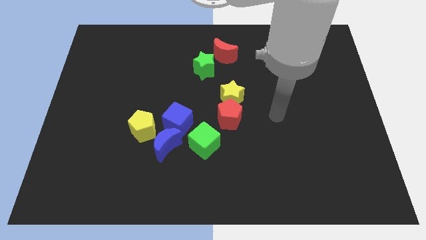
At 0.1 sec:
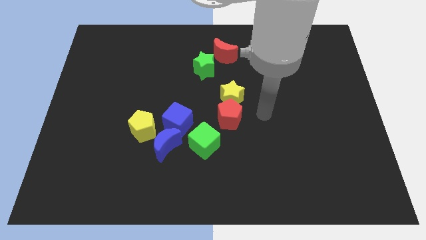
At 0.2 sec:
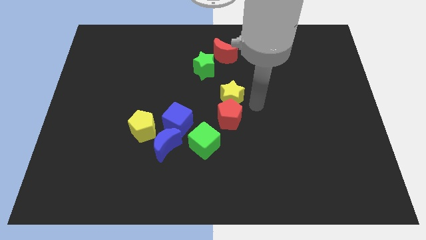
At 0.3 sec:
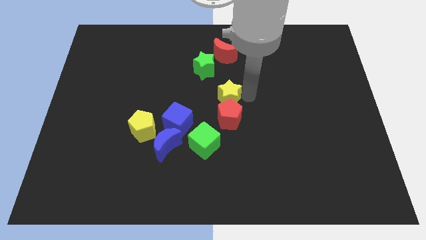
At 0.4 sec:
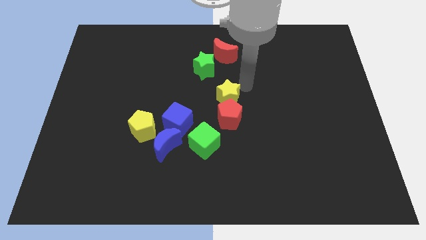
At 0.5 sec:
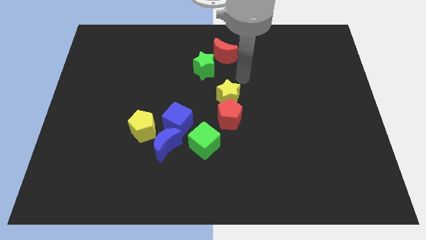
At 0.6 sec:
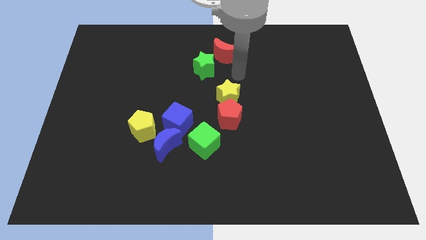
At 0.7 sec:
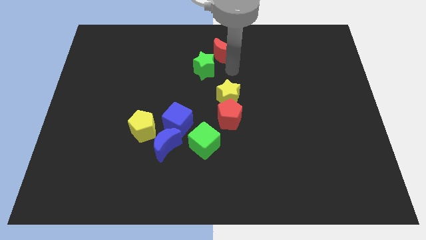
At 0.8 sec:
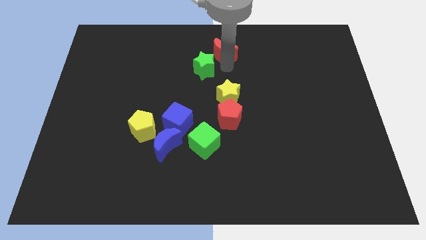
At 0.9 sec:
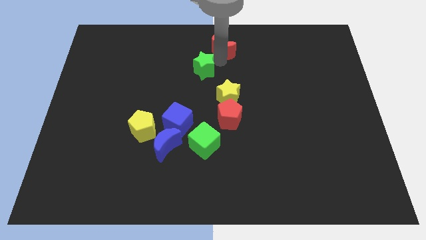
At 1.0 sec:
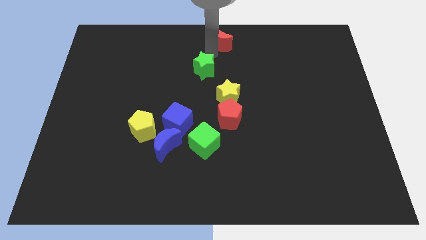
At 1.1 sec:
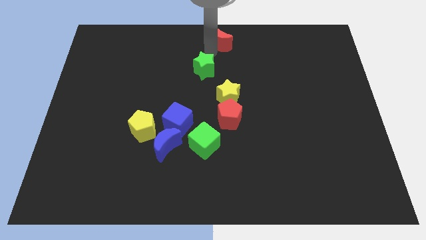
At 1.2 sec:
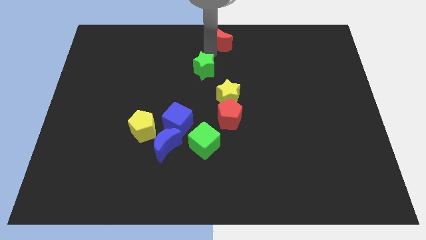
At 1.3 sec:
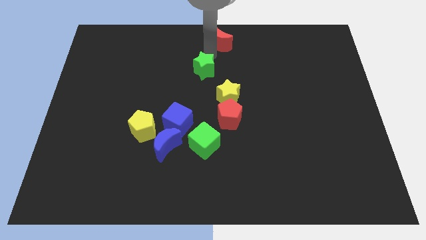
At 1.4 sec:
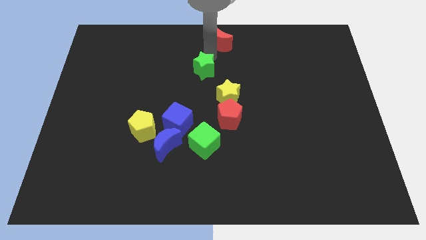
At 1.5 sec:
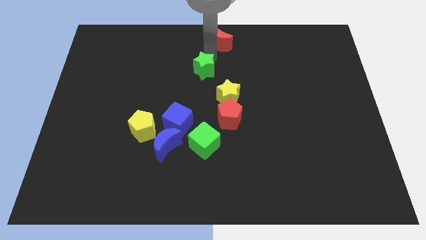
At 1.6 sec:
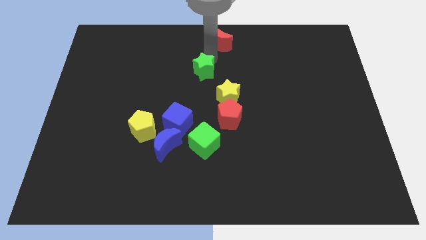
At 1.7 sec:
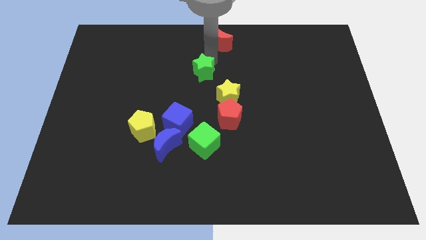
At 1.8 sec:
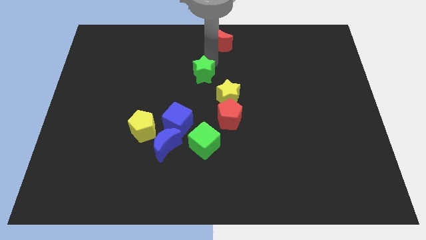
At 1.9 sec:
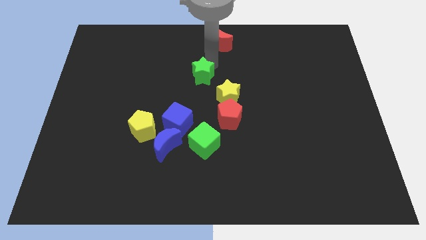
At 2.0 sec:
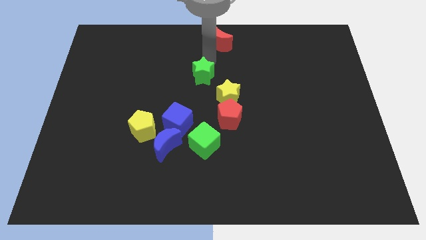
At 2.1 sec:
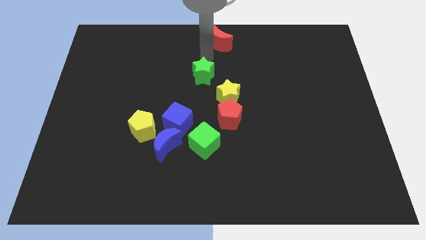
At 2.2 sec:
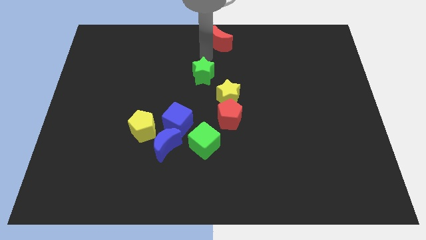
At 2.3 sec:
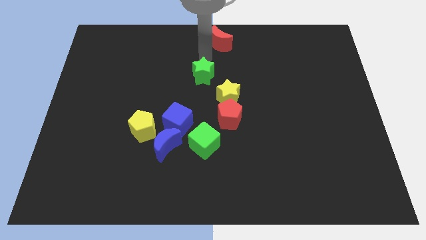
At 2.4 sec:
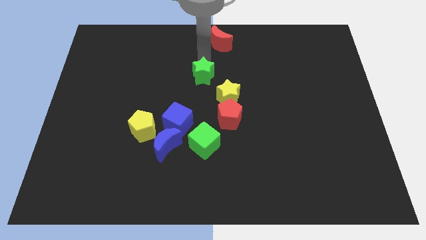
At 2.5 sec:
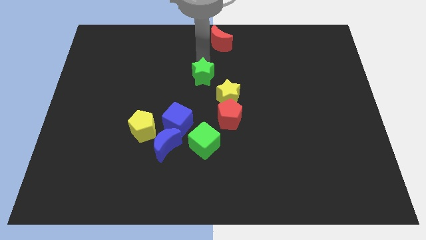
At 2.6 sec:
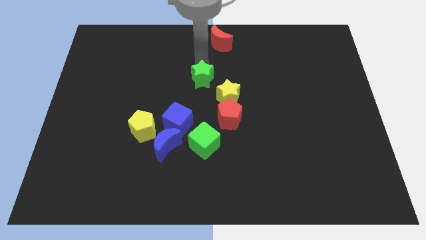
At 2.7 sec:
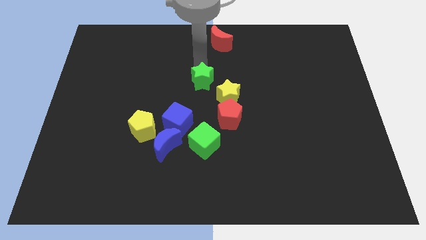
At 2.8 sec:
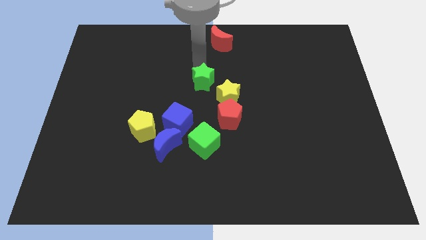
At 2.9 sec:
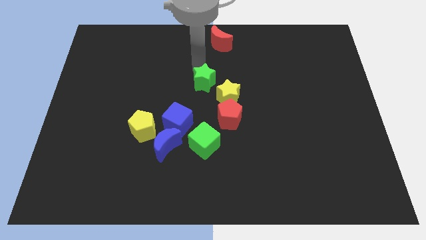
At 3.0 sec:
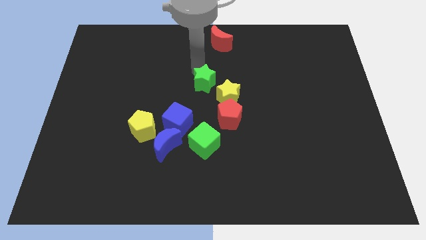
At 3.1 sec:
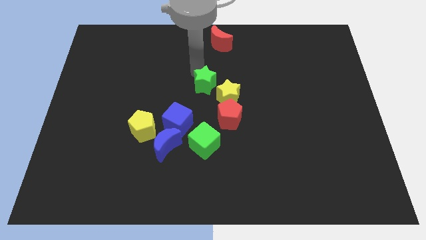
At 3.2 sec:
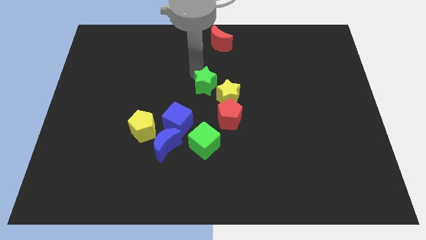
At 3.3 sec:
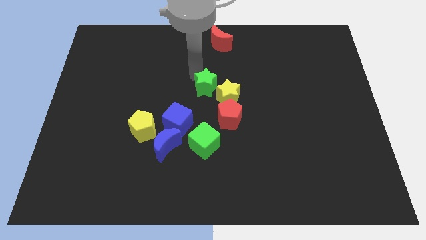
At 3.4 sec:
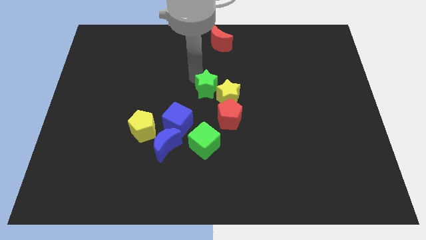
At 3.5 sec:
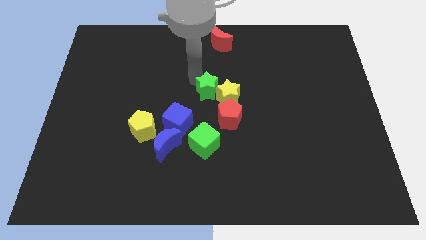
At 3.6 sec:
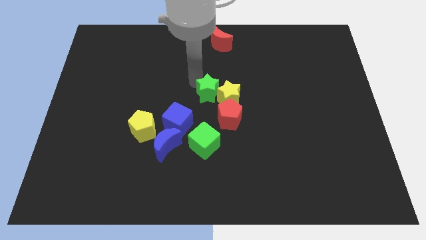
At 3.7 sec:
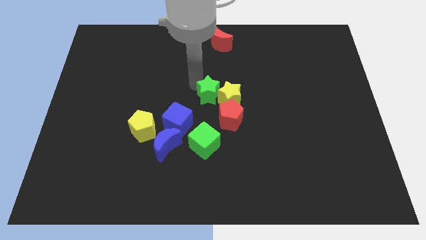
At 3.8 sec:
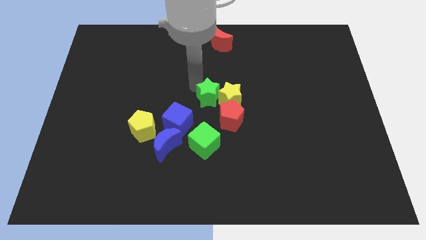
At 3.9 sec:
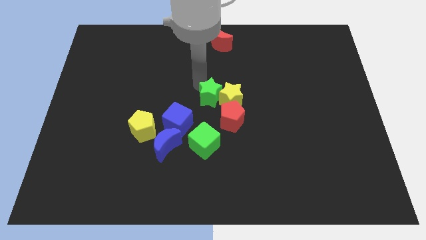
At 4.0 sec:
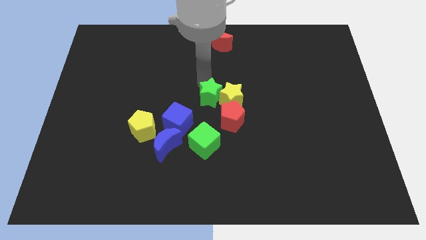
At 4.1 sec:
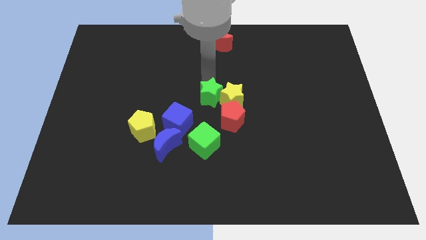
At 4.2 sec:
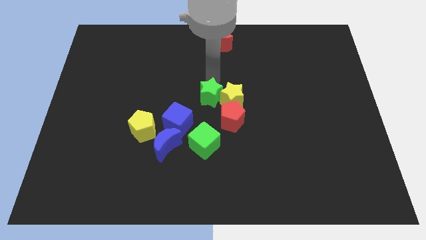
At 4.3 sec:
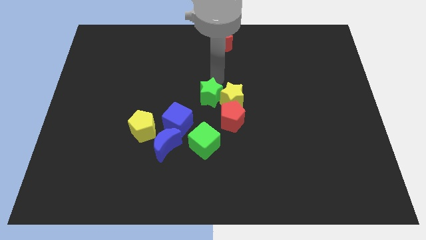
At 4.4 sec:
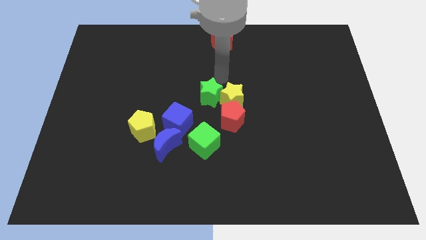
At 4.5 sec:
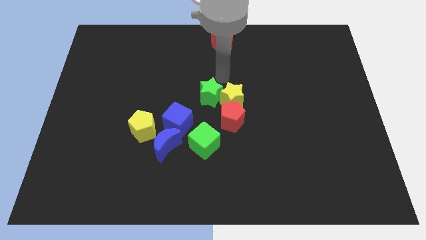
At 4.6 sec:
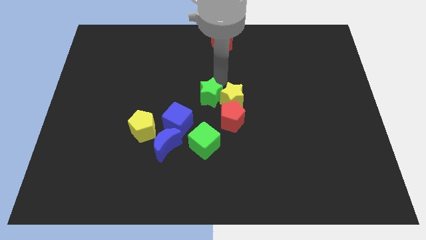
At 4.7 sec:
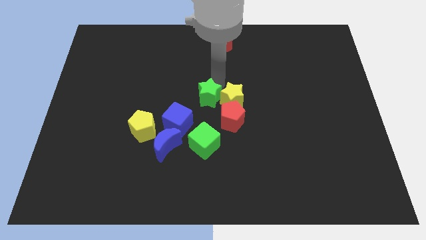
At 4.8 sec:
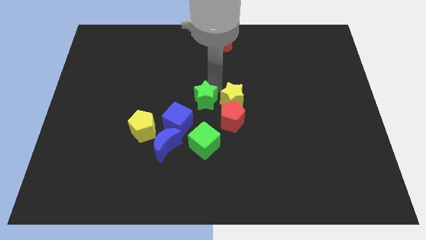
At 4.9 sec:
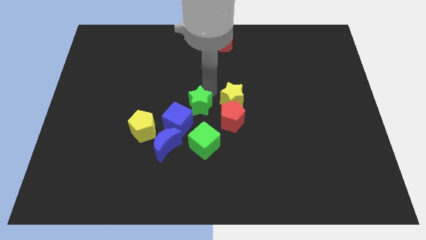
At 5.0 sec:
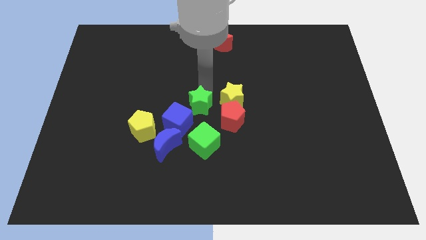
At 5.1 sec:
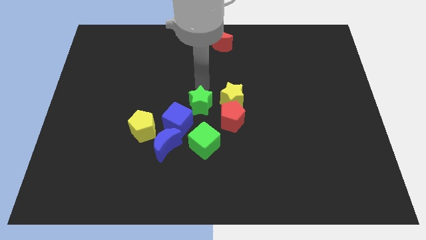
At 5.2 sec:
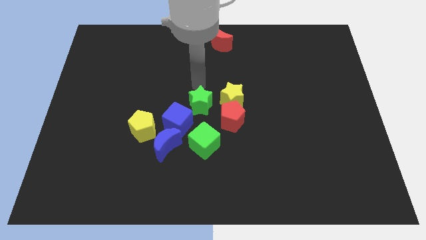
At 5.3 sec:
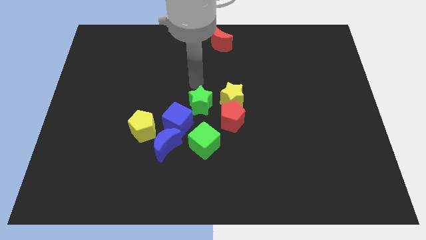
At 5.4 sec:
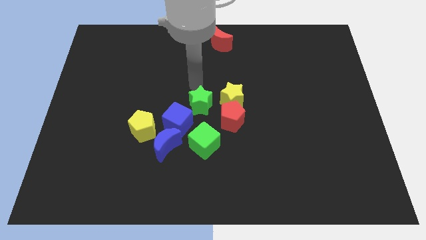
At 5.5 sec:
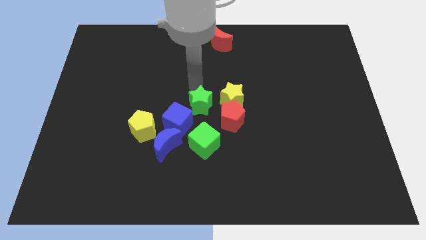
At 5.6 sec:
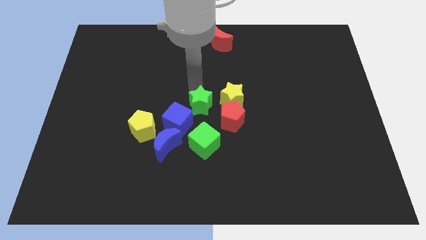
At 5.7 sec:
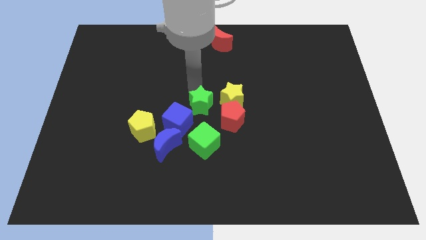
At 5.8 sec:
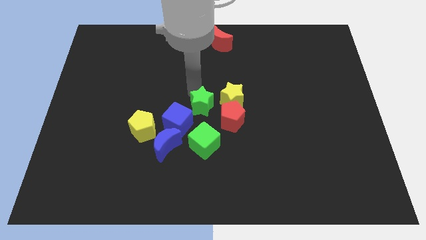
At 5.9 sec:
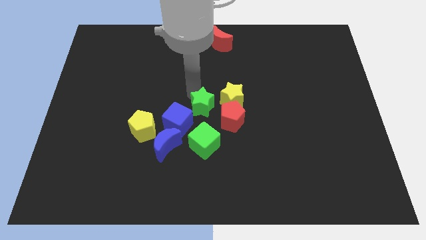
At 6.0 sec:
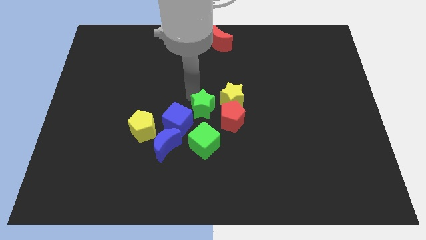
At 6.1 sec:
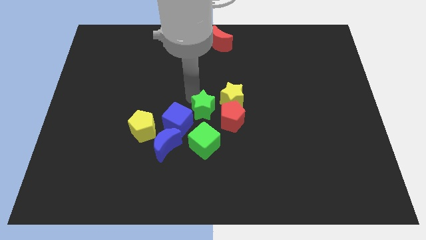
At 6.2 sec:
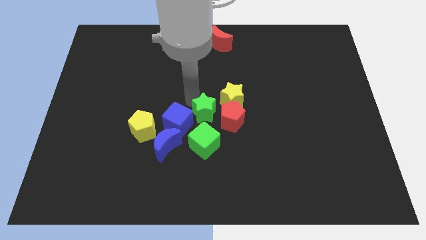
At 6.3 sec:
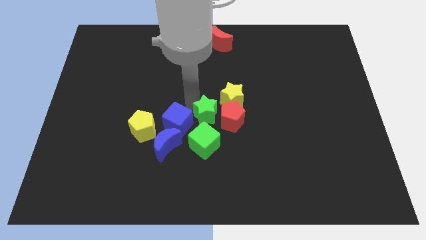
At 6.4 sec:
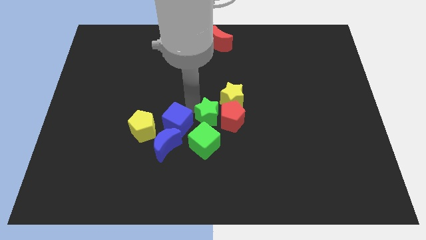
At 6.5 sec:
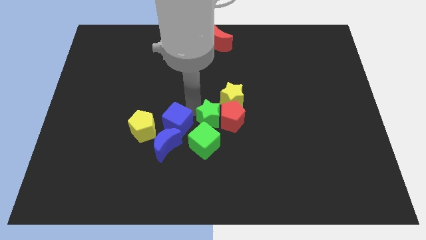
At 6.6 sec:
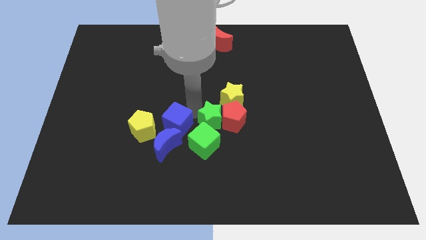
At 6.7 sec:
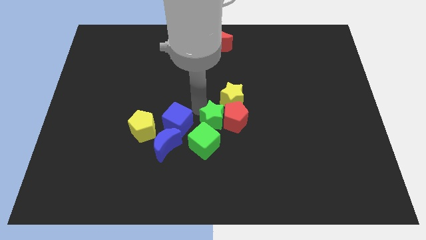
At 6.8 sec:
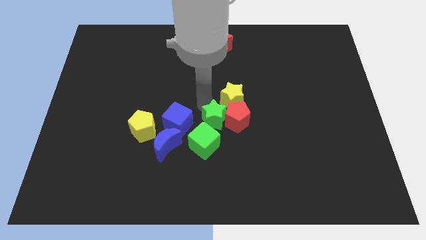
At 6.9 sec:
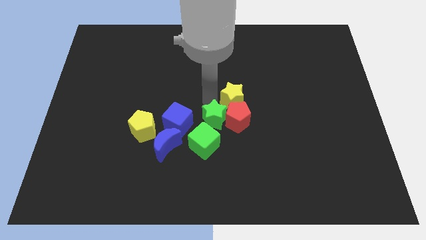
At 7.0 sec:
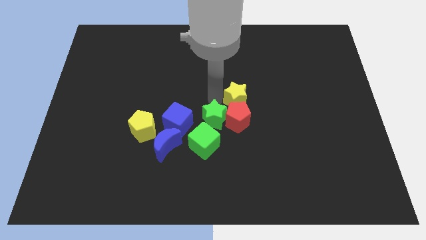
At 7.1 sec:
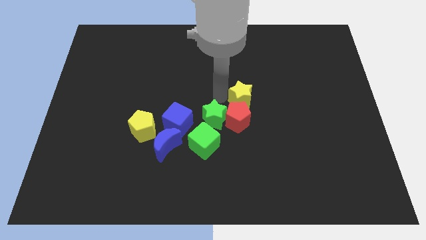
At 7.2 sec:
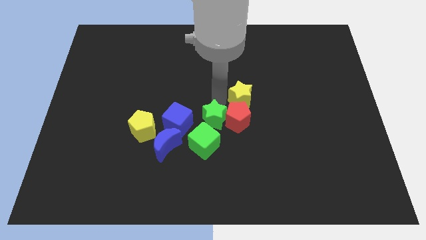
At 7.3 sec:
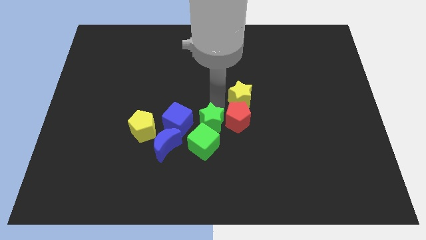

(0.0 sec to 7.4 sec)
slide the green star next to the green cube

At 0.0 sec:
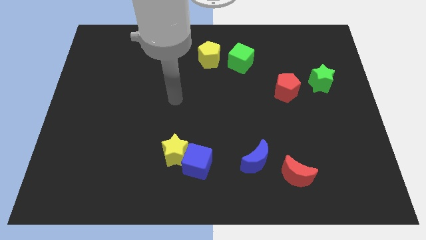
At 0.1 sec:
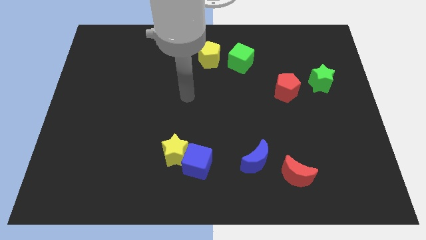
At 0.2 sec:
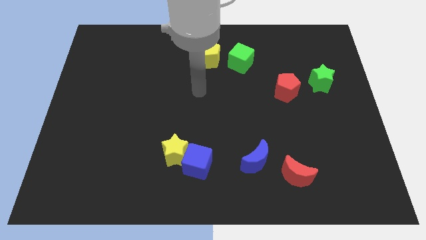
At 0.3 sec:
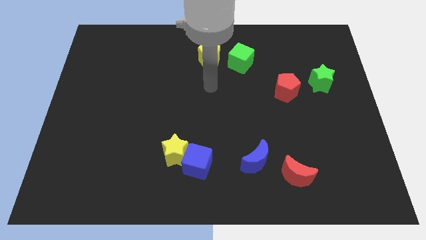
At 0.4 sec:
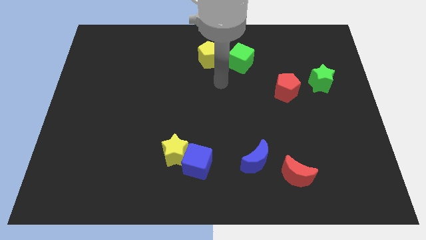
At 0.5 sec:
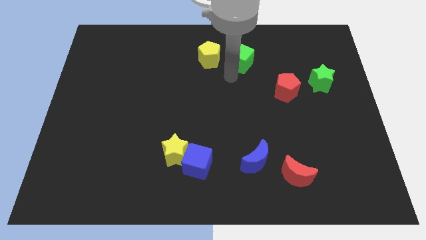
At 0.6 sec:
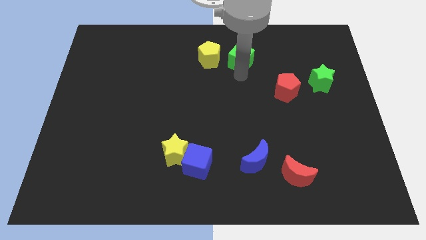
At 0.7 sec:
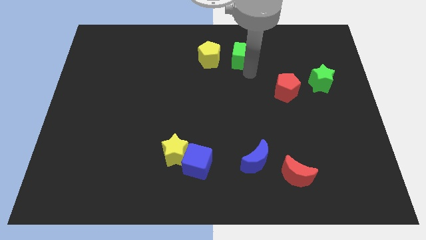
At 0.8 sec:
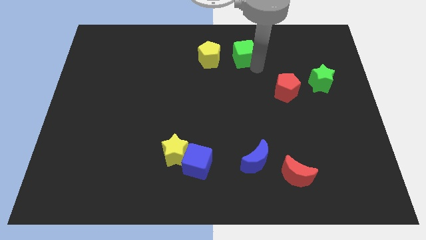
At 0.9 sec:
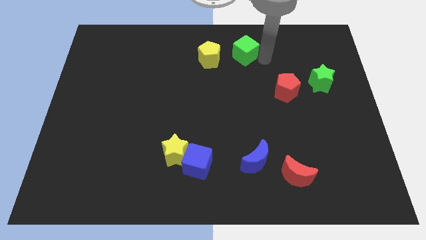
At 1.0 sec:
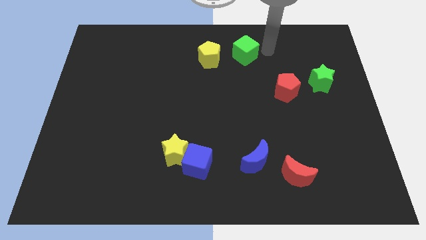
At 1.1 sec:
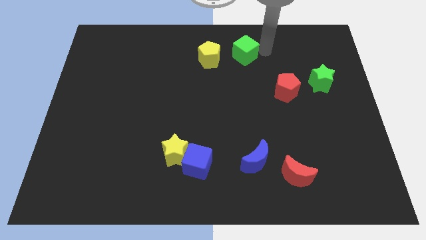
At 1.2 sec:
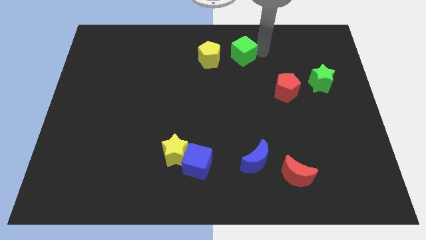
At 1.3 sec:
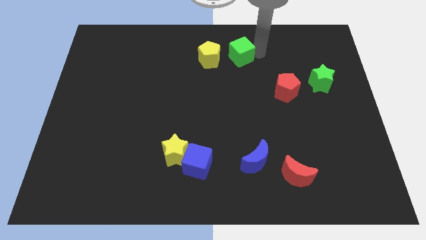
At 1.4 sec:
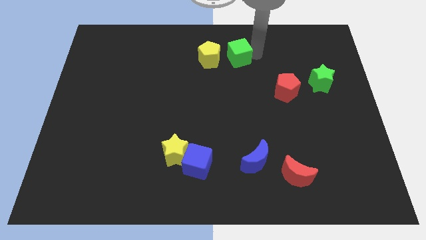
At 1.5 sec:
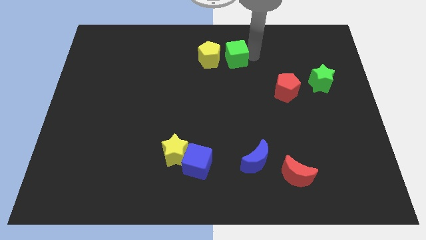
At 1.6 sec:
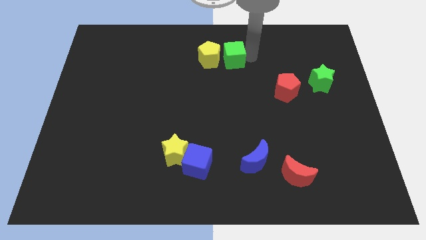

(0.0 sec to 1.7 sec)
move the green cube next to the yellow pentagon
